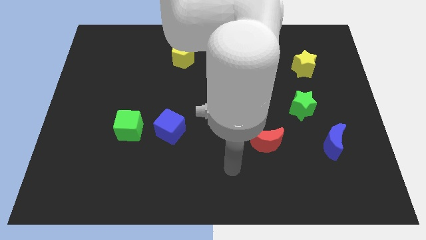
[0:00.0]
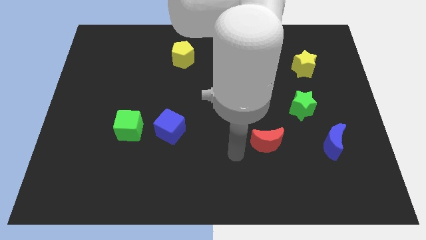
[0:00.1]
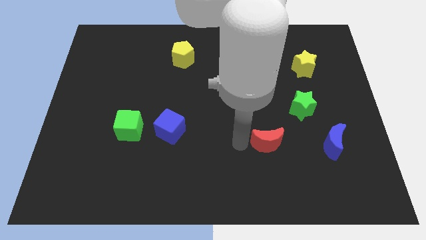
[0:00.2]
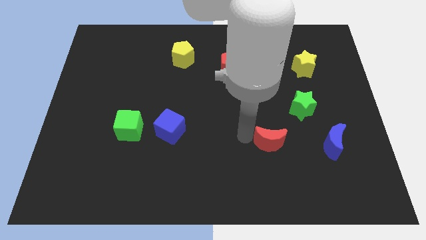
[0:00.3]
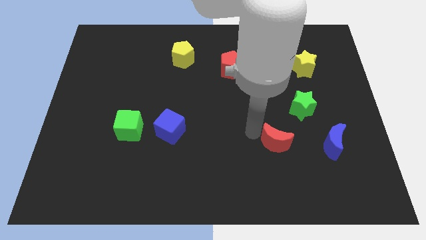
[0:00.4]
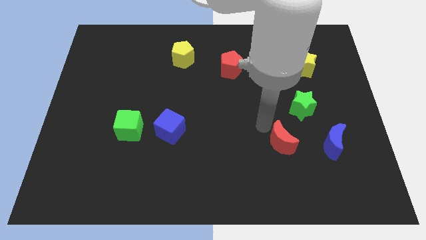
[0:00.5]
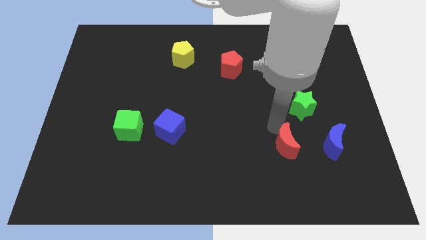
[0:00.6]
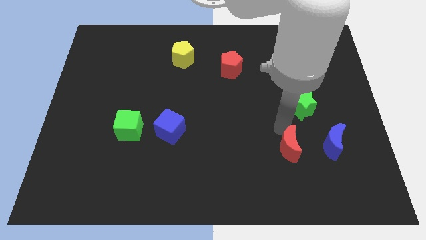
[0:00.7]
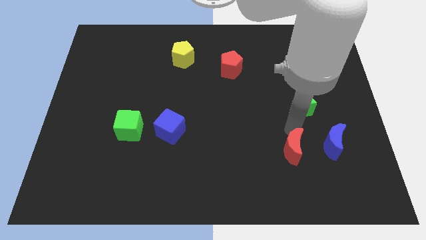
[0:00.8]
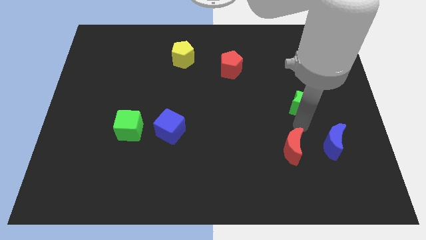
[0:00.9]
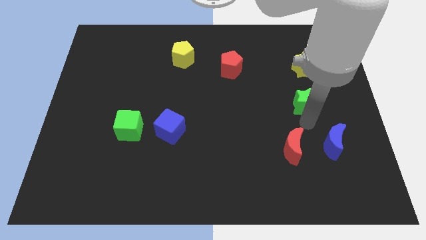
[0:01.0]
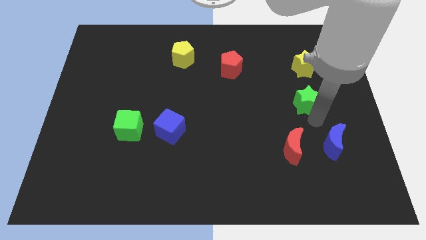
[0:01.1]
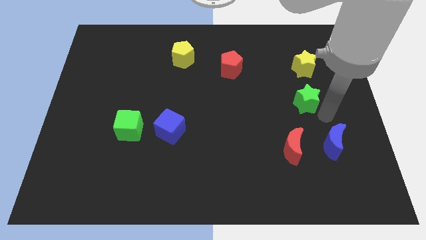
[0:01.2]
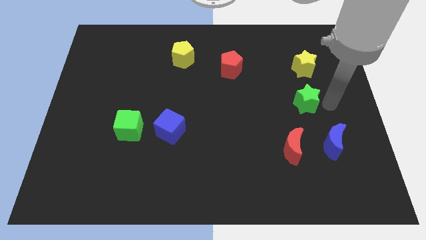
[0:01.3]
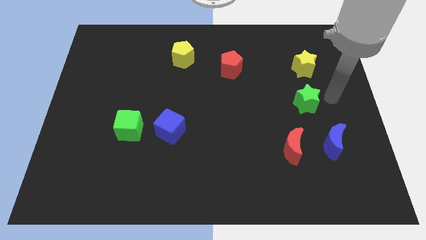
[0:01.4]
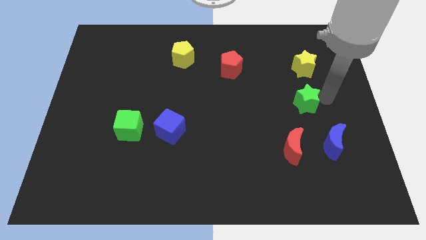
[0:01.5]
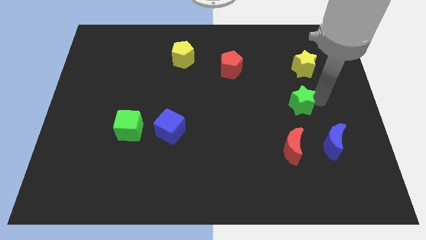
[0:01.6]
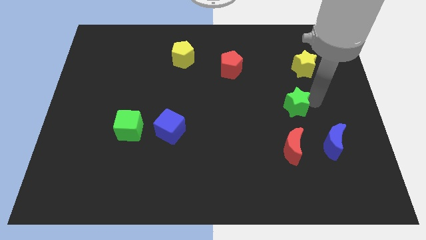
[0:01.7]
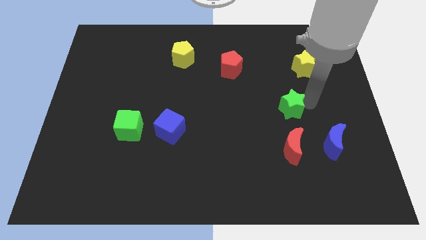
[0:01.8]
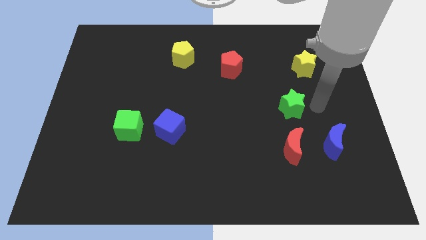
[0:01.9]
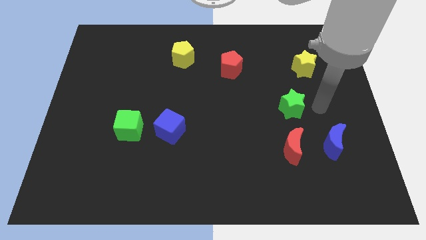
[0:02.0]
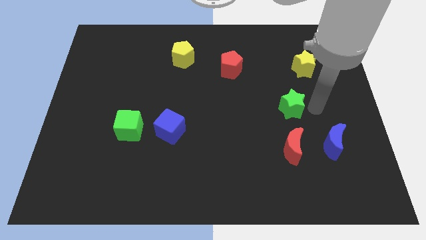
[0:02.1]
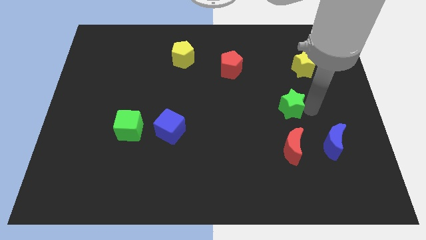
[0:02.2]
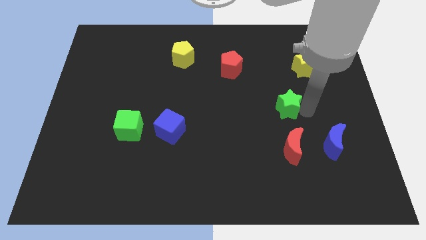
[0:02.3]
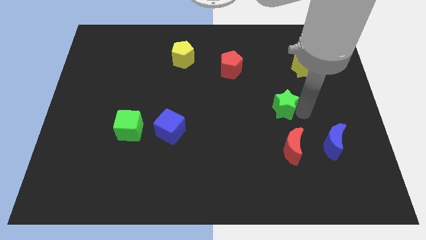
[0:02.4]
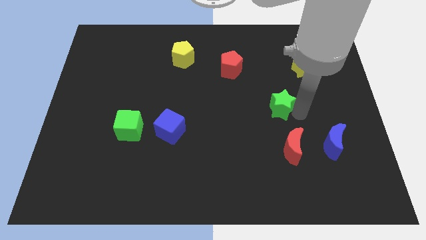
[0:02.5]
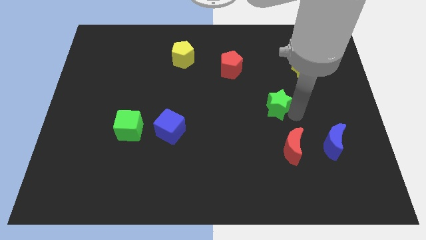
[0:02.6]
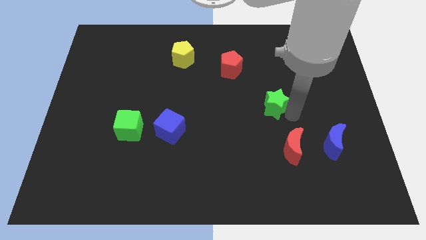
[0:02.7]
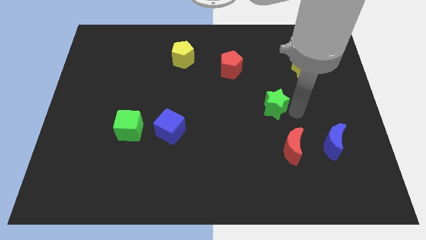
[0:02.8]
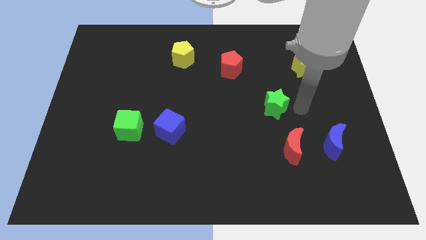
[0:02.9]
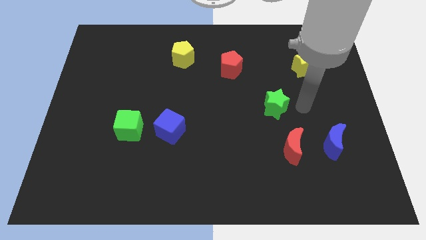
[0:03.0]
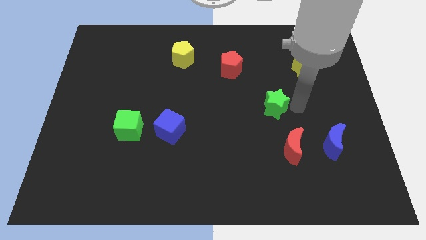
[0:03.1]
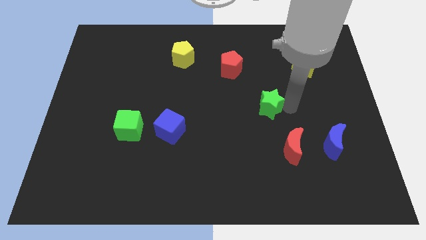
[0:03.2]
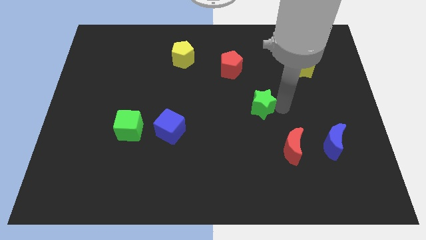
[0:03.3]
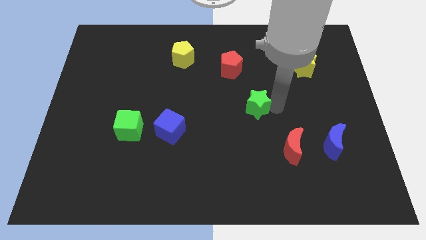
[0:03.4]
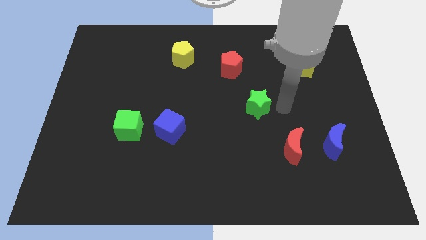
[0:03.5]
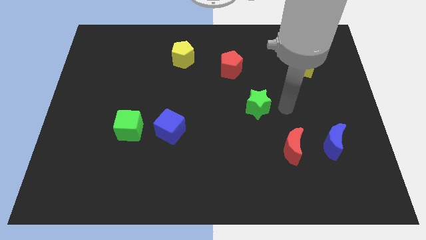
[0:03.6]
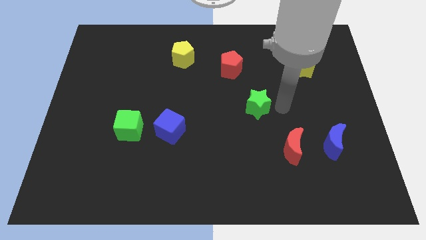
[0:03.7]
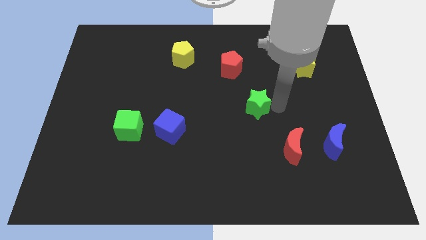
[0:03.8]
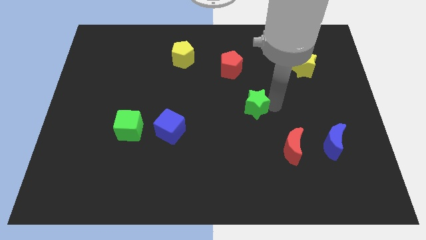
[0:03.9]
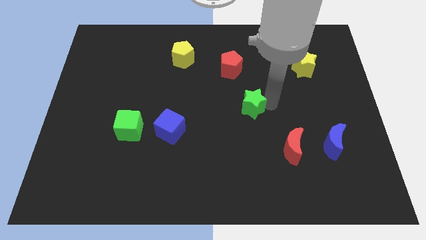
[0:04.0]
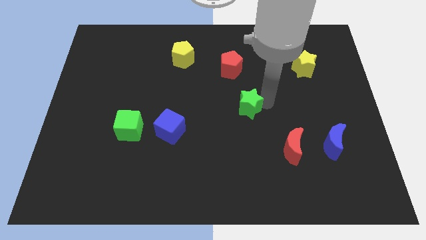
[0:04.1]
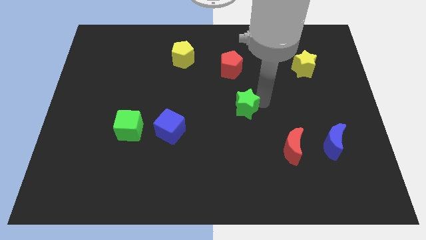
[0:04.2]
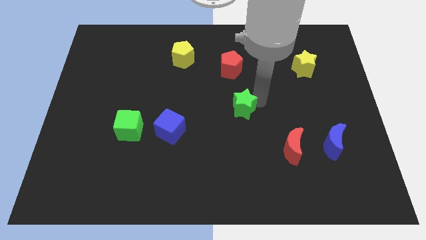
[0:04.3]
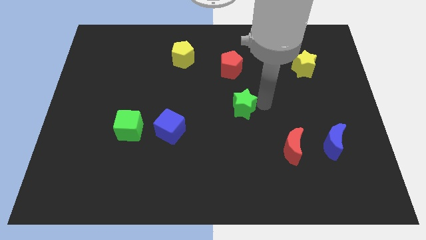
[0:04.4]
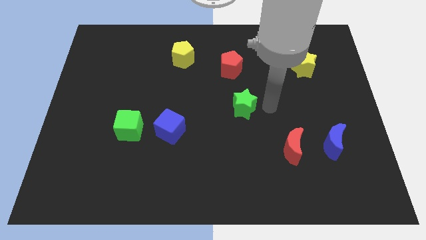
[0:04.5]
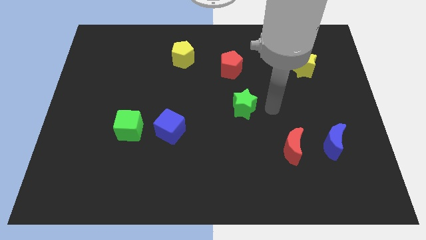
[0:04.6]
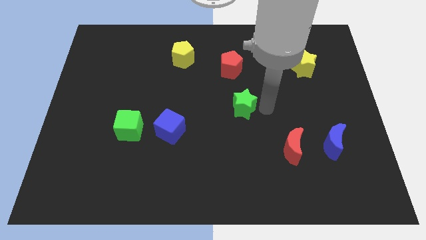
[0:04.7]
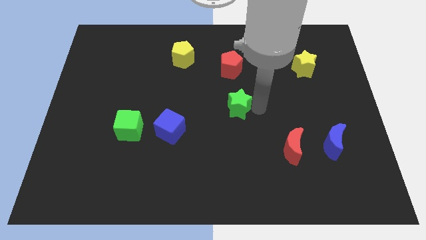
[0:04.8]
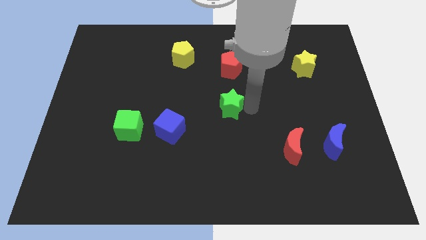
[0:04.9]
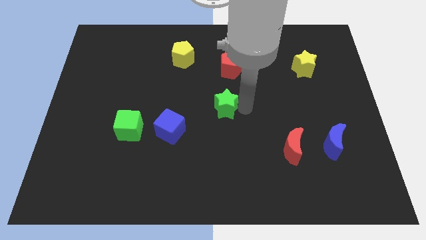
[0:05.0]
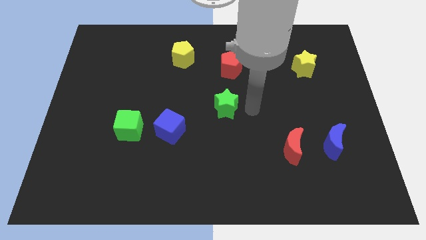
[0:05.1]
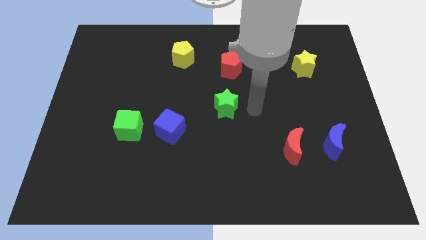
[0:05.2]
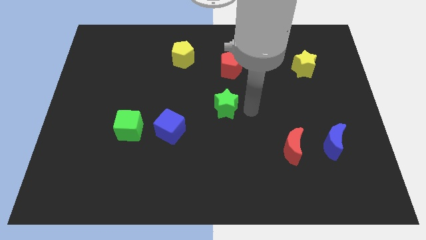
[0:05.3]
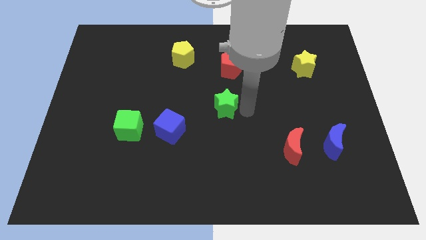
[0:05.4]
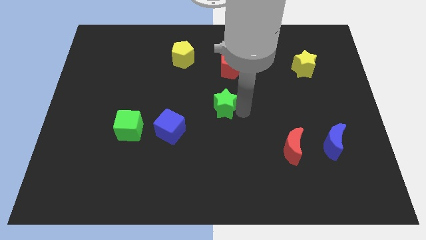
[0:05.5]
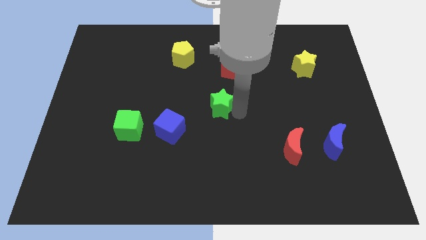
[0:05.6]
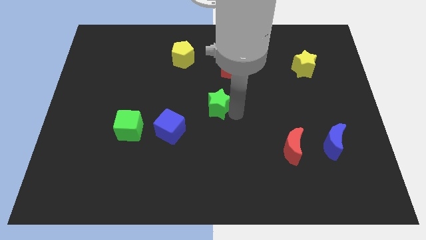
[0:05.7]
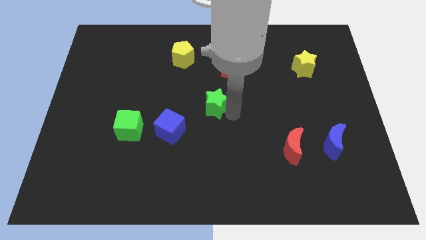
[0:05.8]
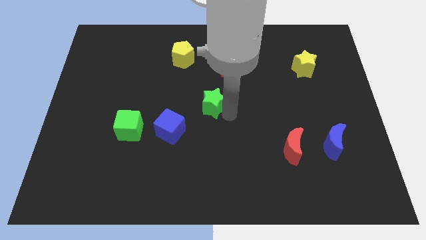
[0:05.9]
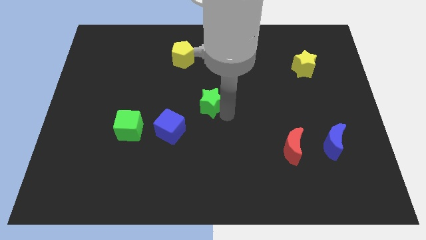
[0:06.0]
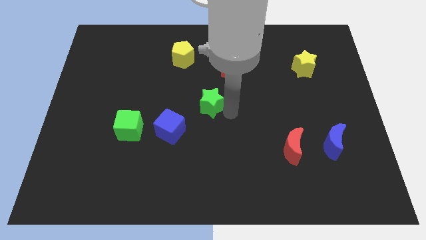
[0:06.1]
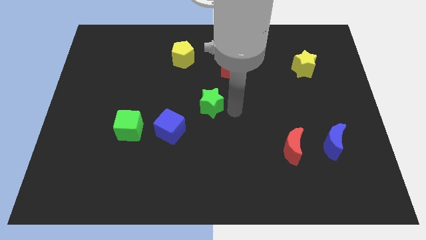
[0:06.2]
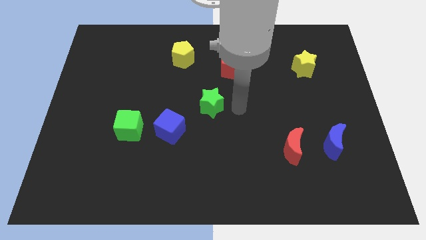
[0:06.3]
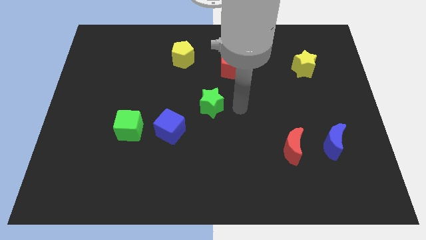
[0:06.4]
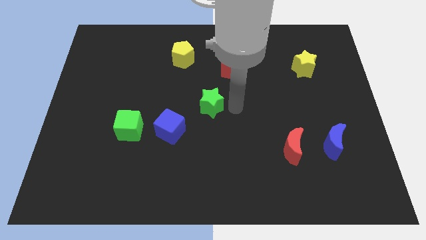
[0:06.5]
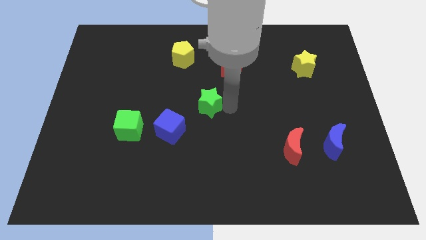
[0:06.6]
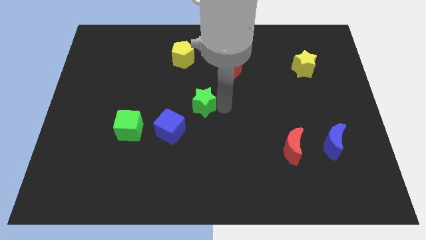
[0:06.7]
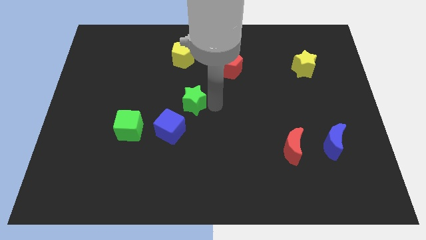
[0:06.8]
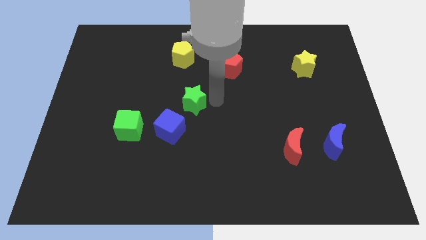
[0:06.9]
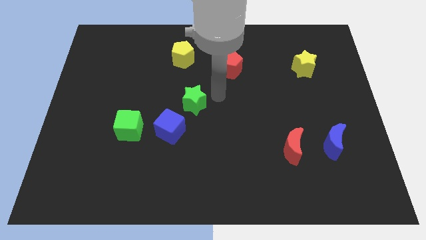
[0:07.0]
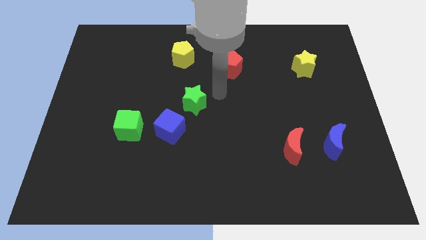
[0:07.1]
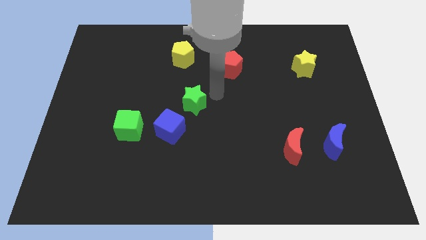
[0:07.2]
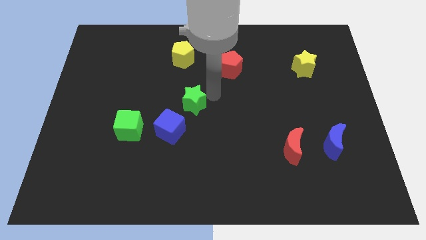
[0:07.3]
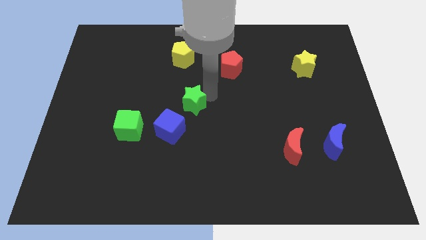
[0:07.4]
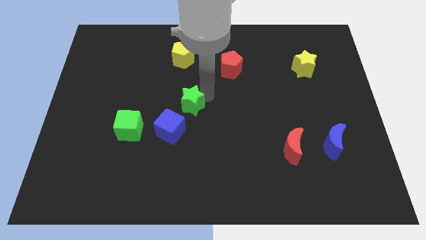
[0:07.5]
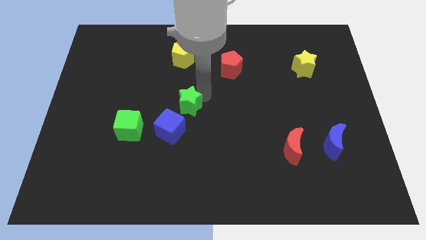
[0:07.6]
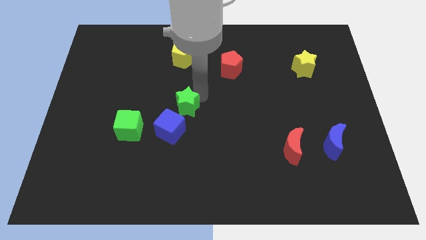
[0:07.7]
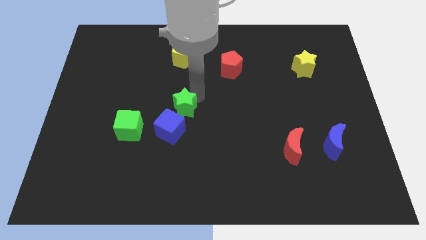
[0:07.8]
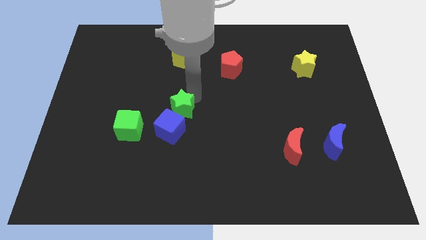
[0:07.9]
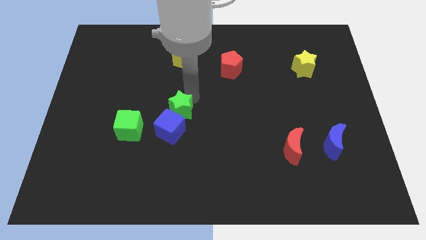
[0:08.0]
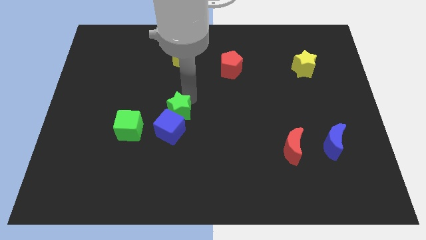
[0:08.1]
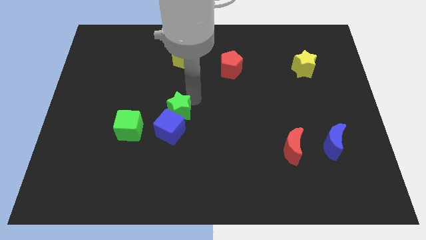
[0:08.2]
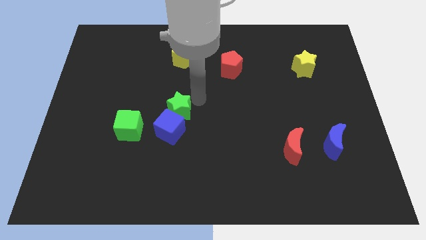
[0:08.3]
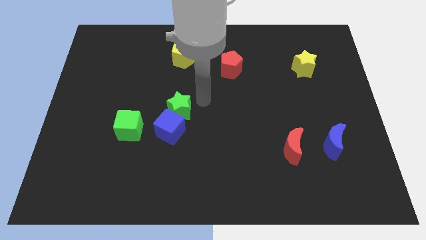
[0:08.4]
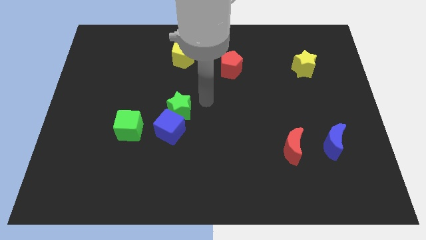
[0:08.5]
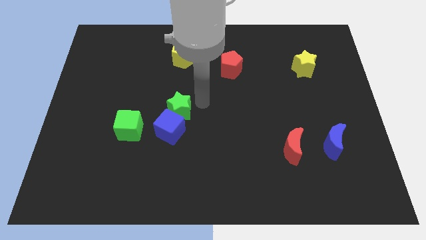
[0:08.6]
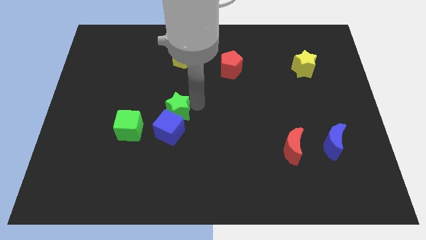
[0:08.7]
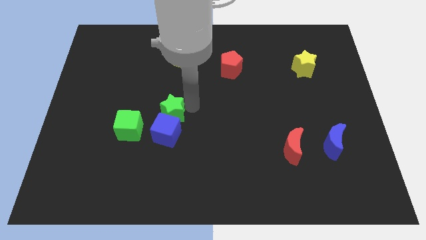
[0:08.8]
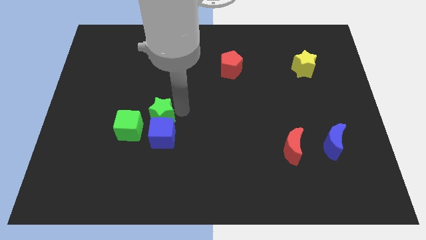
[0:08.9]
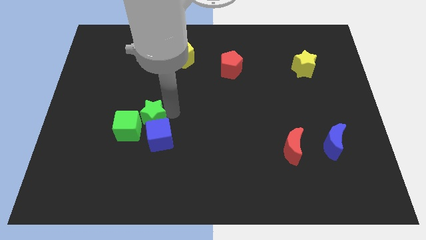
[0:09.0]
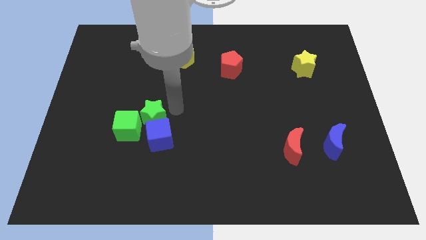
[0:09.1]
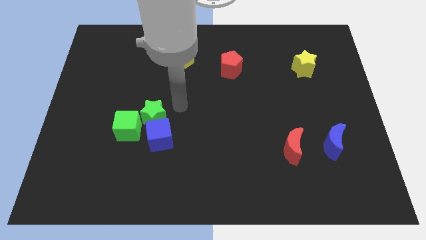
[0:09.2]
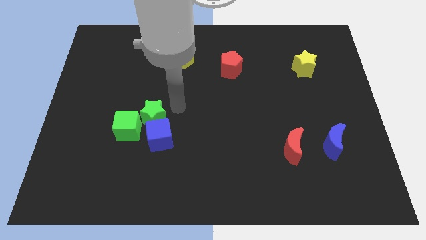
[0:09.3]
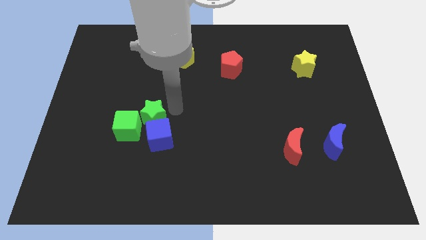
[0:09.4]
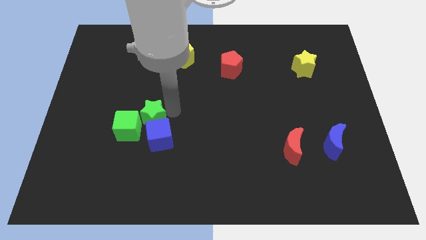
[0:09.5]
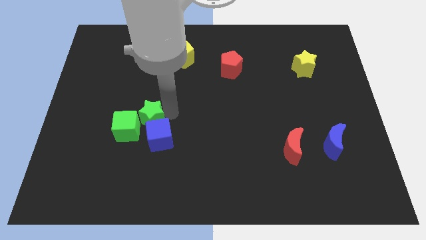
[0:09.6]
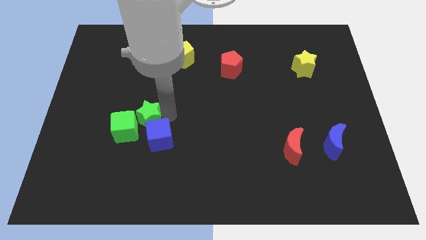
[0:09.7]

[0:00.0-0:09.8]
push the green star close to the green cube
